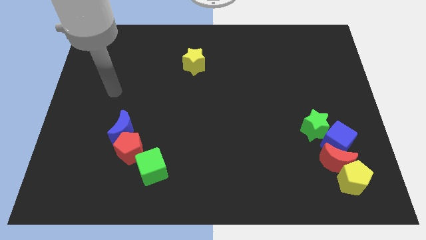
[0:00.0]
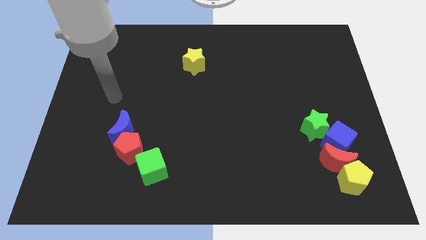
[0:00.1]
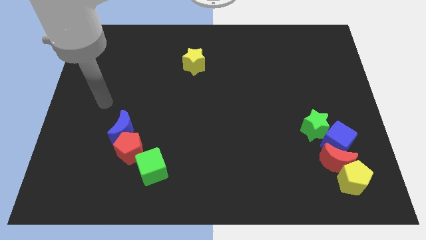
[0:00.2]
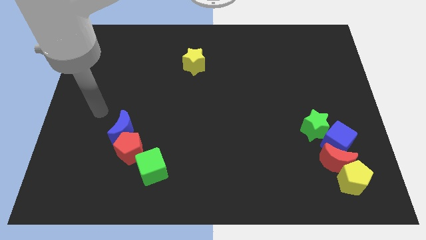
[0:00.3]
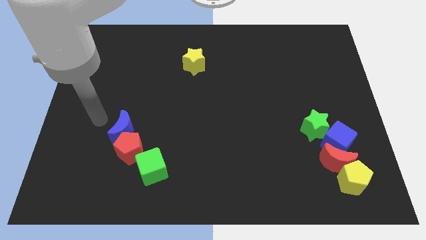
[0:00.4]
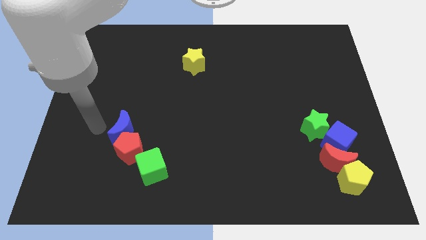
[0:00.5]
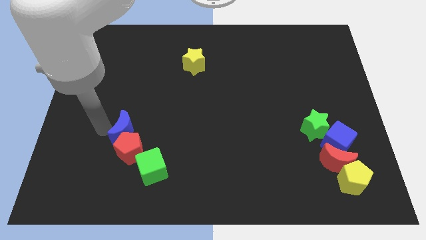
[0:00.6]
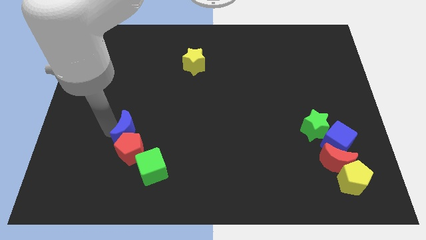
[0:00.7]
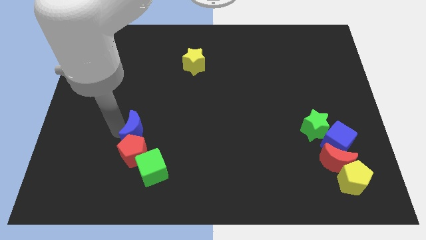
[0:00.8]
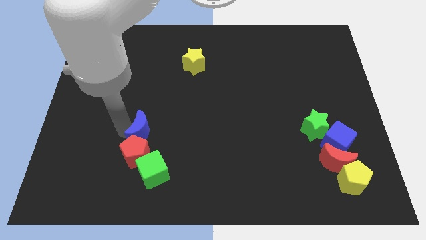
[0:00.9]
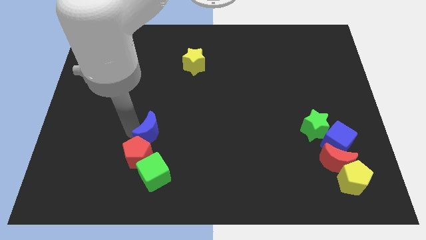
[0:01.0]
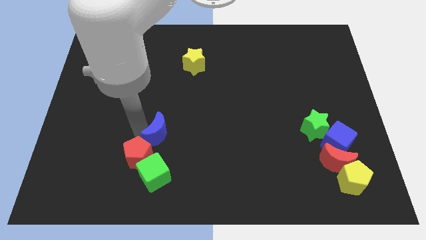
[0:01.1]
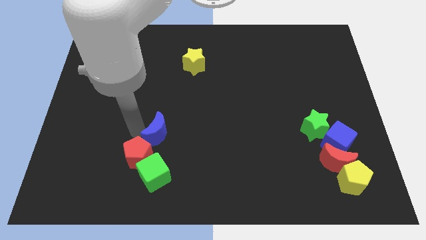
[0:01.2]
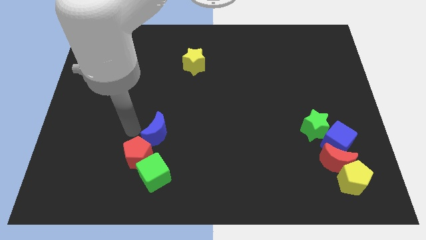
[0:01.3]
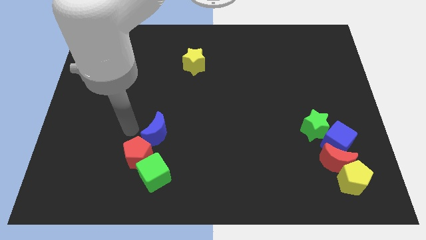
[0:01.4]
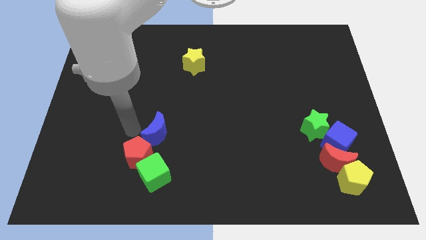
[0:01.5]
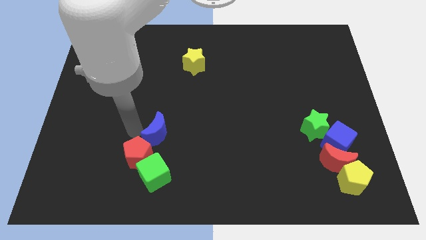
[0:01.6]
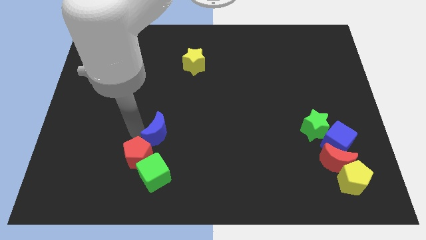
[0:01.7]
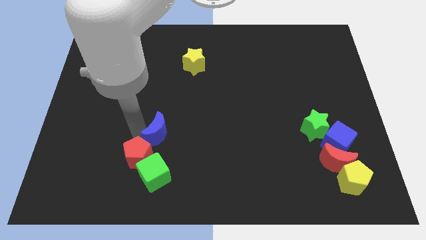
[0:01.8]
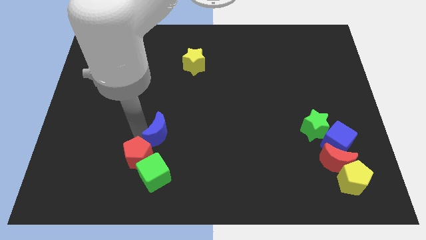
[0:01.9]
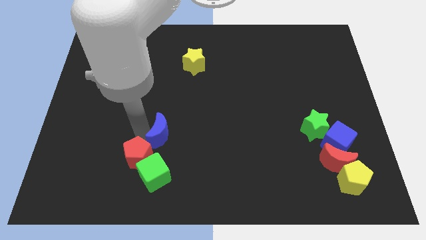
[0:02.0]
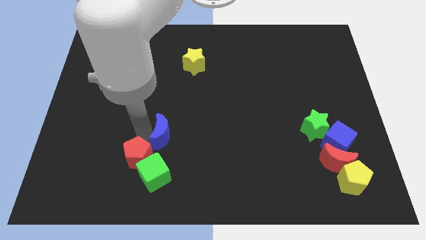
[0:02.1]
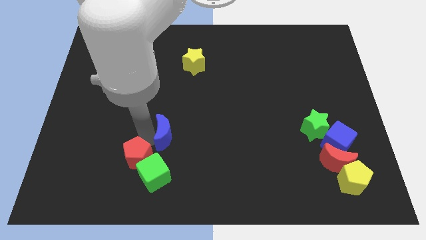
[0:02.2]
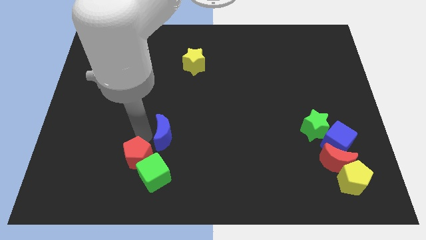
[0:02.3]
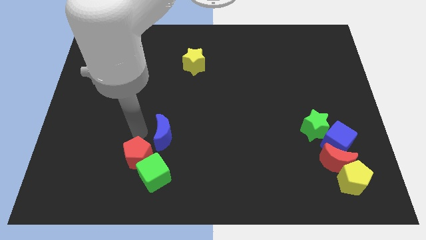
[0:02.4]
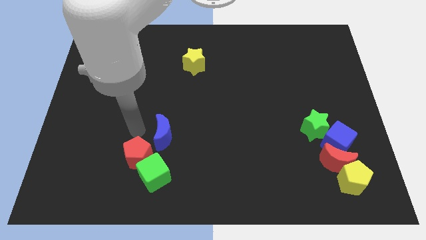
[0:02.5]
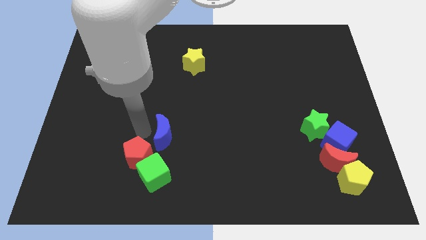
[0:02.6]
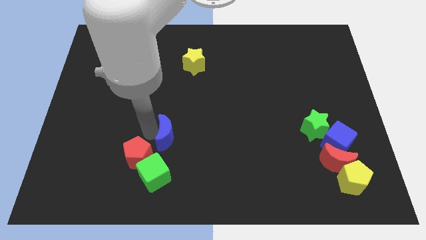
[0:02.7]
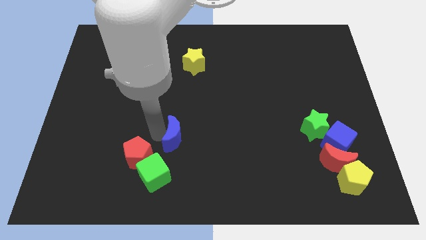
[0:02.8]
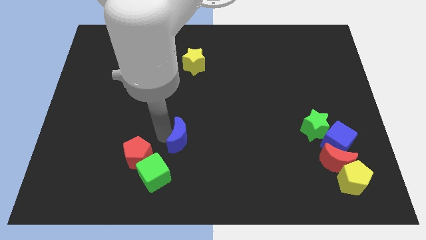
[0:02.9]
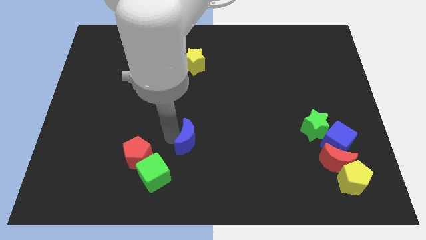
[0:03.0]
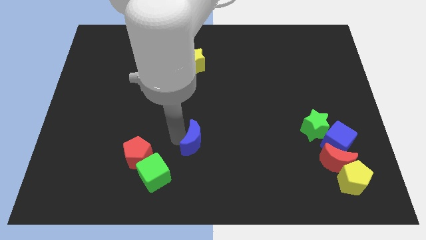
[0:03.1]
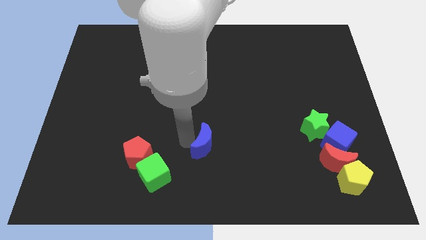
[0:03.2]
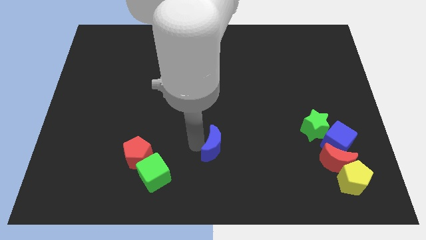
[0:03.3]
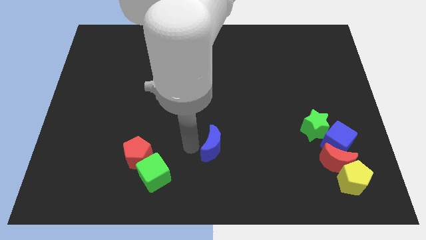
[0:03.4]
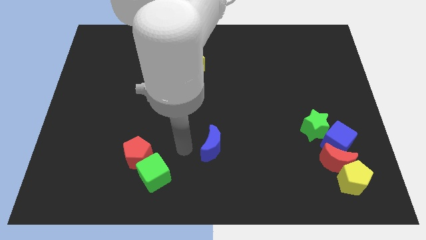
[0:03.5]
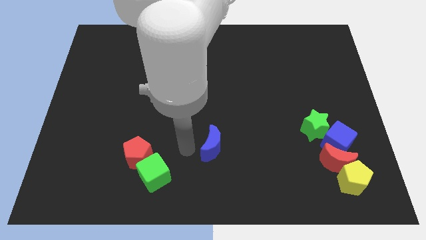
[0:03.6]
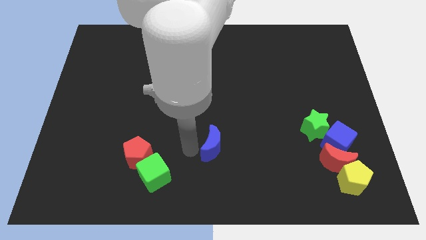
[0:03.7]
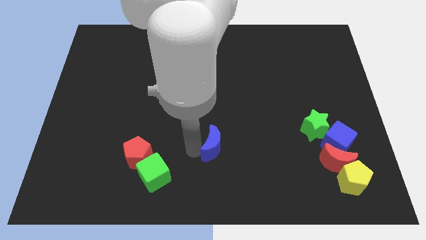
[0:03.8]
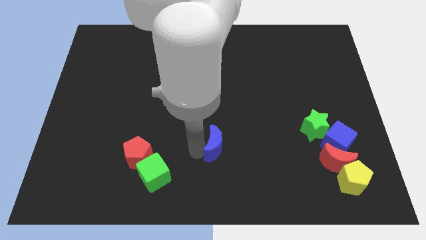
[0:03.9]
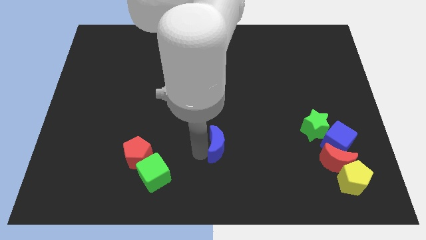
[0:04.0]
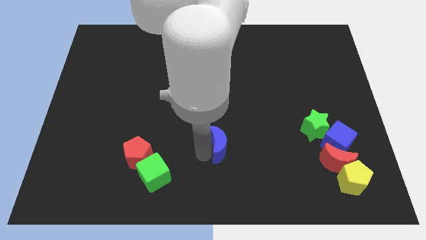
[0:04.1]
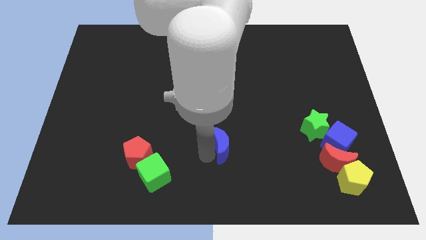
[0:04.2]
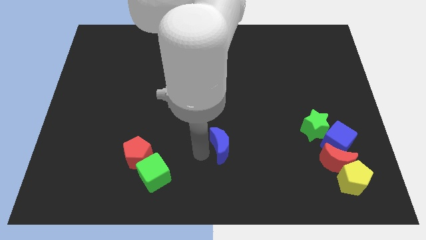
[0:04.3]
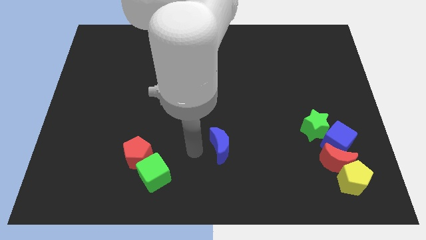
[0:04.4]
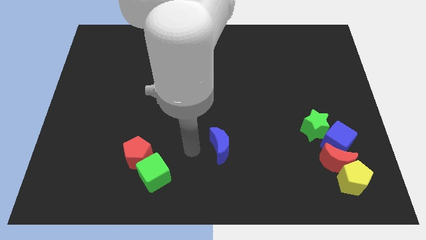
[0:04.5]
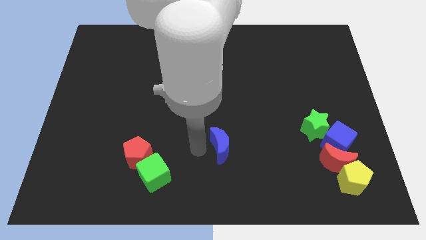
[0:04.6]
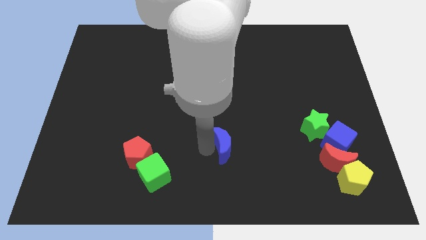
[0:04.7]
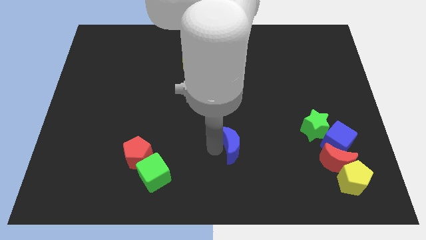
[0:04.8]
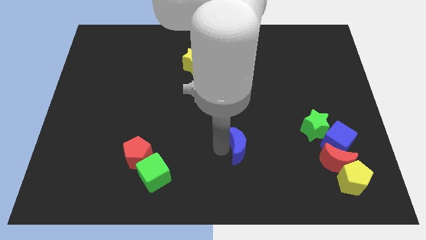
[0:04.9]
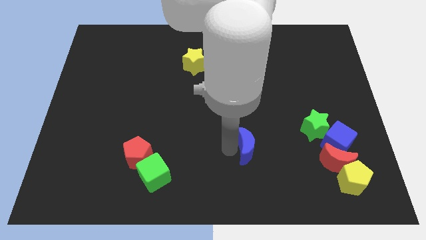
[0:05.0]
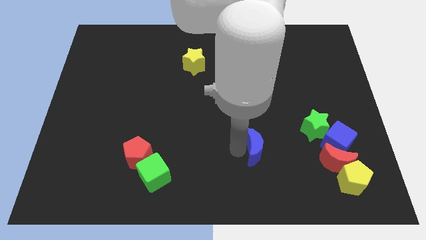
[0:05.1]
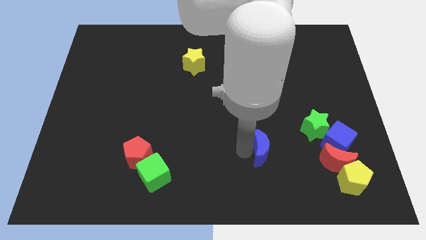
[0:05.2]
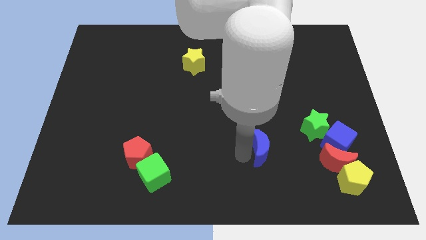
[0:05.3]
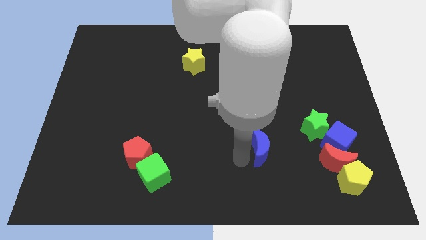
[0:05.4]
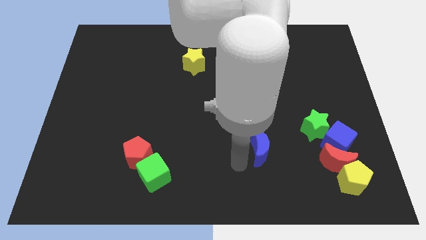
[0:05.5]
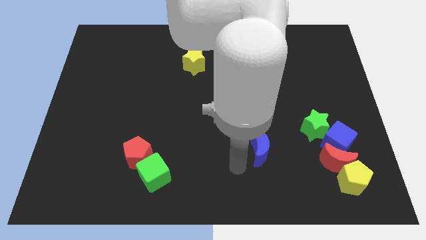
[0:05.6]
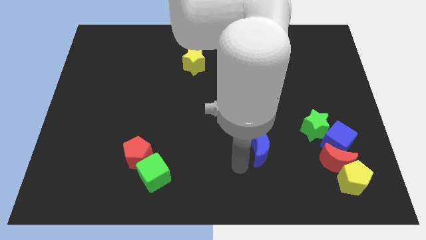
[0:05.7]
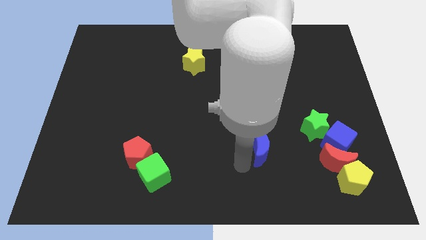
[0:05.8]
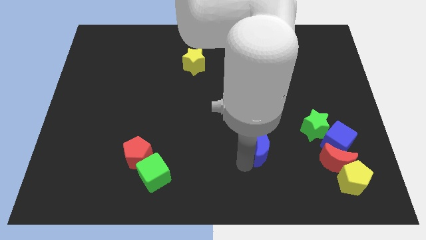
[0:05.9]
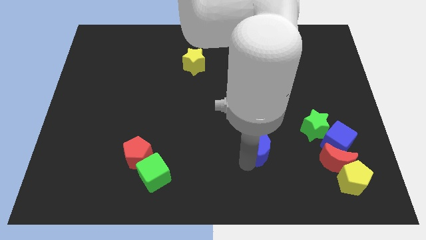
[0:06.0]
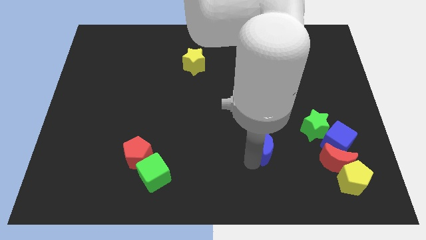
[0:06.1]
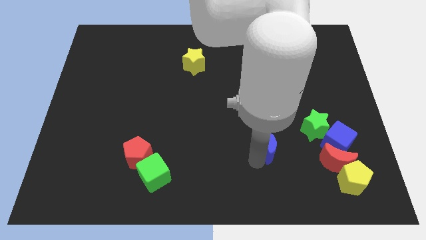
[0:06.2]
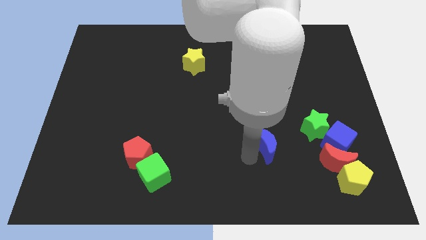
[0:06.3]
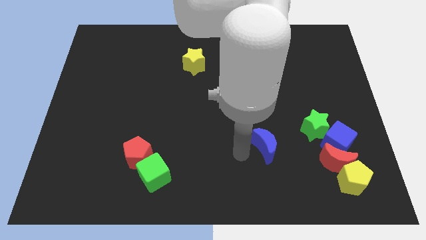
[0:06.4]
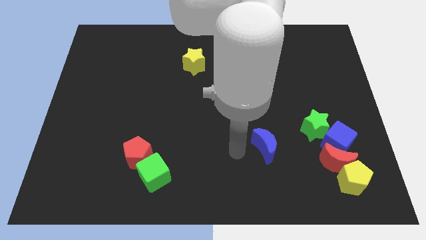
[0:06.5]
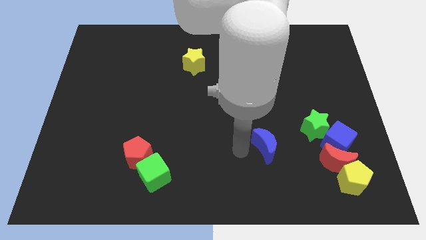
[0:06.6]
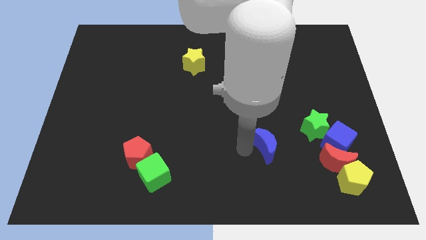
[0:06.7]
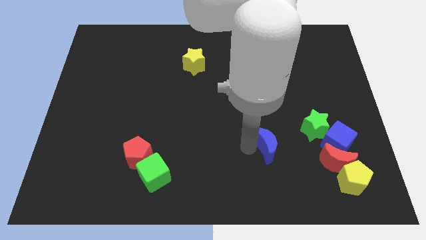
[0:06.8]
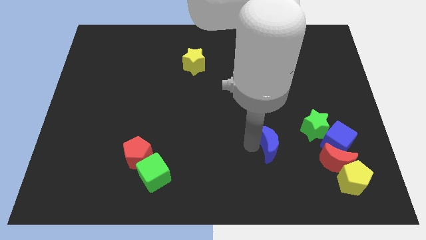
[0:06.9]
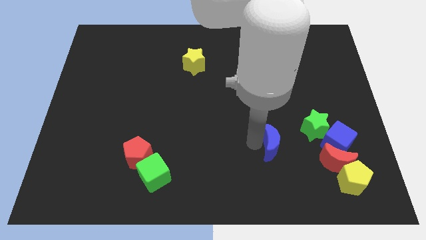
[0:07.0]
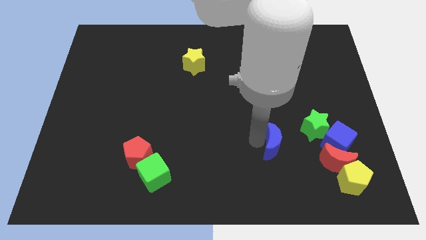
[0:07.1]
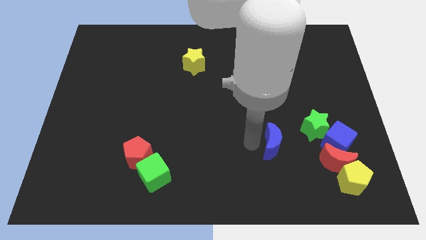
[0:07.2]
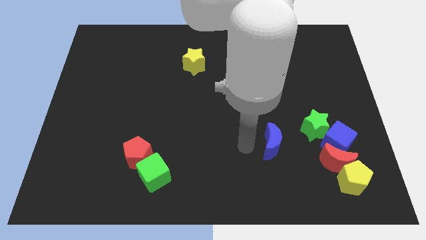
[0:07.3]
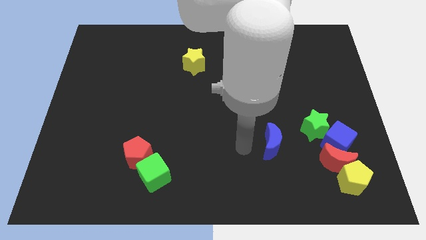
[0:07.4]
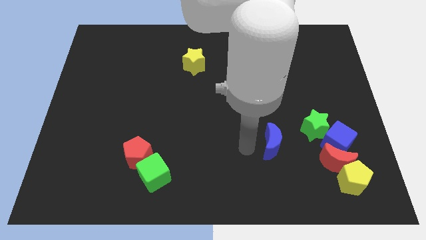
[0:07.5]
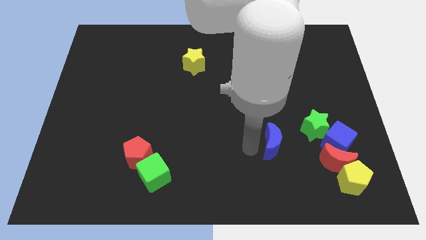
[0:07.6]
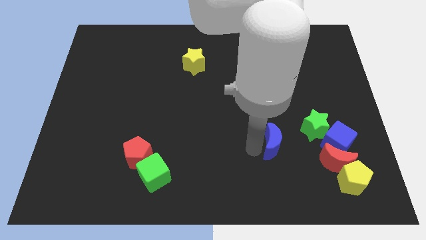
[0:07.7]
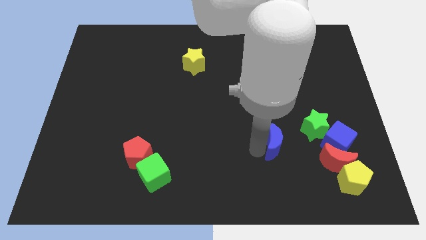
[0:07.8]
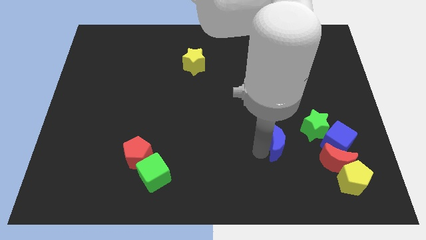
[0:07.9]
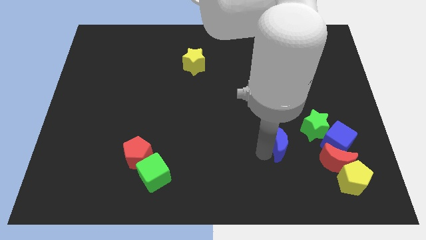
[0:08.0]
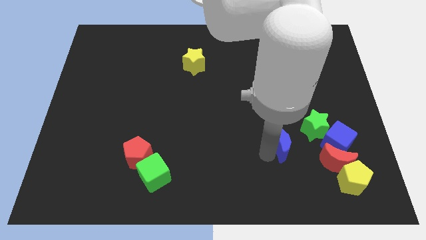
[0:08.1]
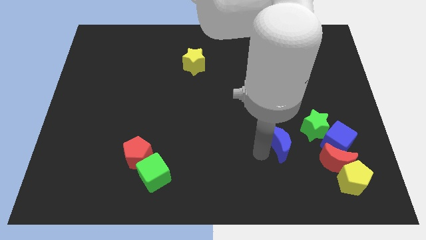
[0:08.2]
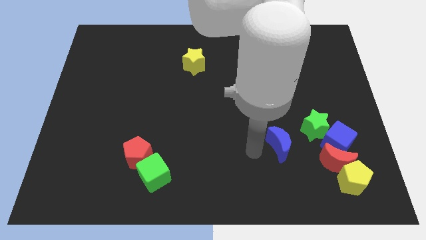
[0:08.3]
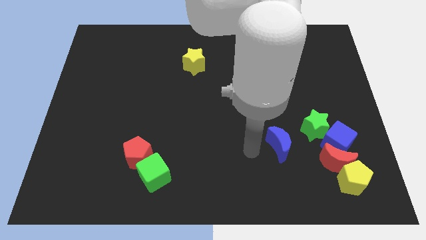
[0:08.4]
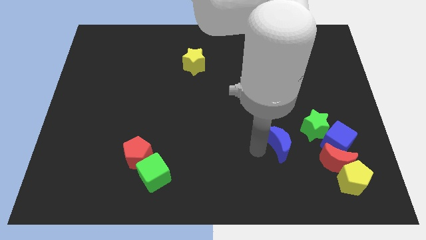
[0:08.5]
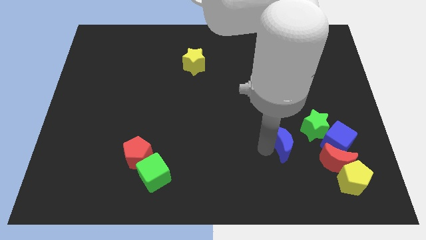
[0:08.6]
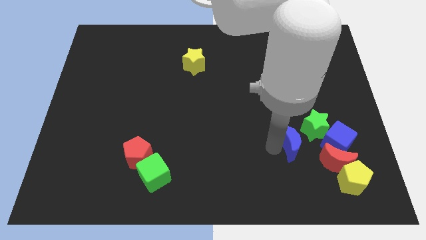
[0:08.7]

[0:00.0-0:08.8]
move the blue moon diagonally up and to the left of the red moon
